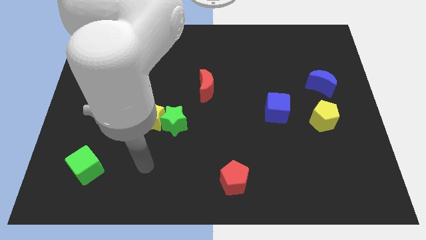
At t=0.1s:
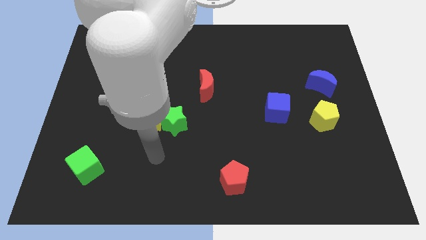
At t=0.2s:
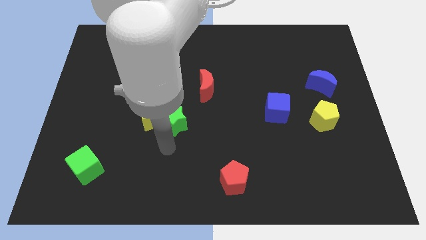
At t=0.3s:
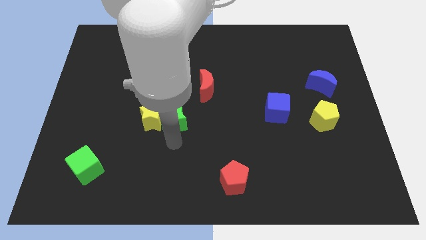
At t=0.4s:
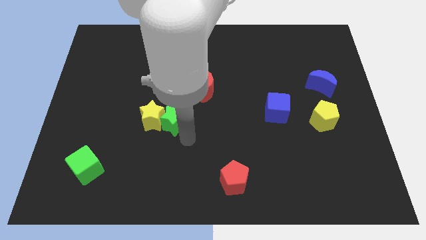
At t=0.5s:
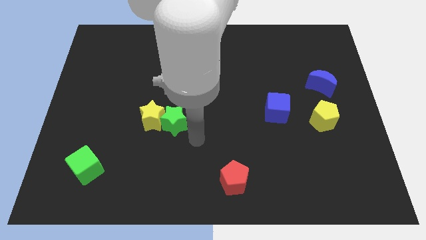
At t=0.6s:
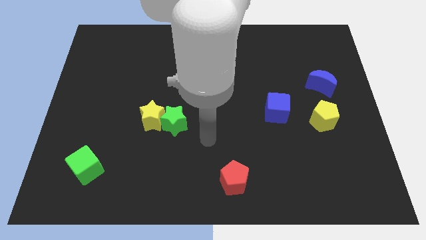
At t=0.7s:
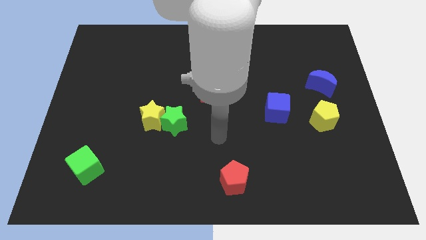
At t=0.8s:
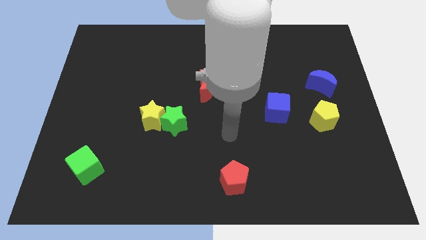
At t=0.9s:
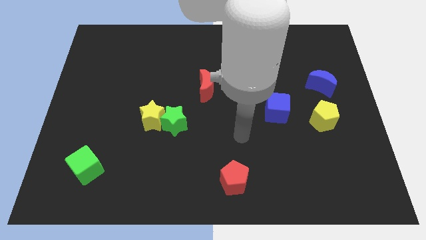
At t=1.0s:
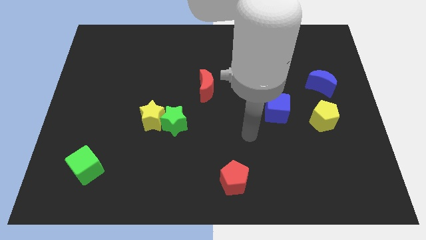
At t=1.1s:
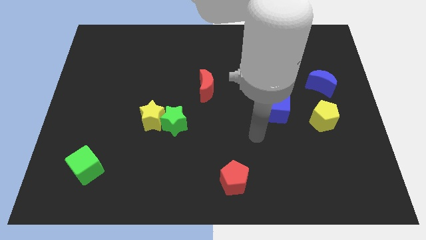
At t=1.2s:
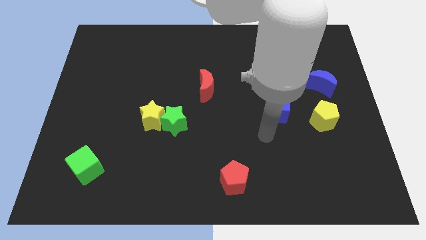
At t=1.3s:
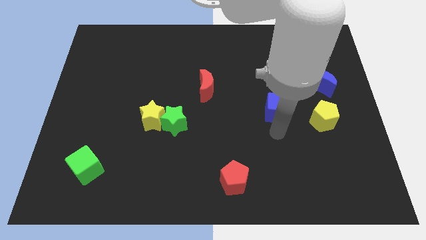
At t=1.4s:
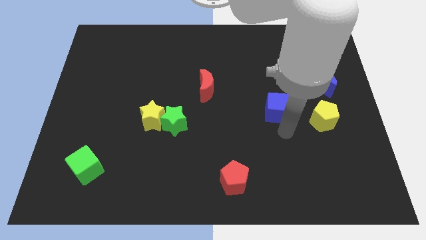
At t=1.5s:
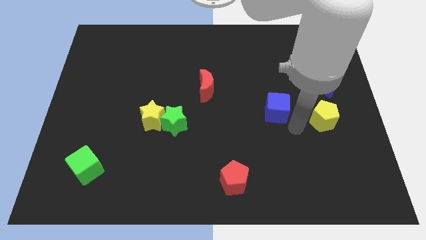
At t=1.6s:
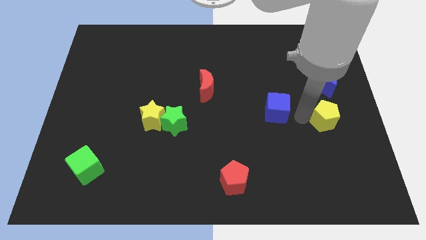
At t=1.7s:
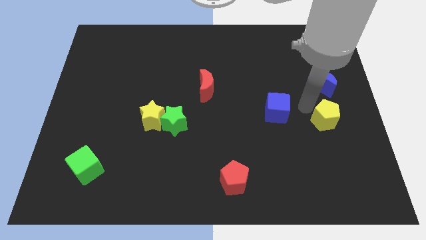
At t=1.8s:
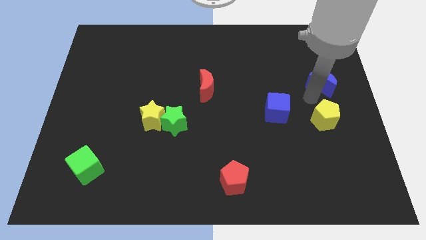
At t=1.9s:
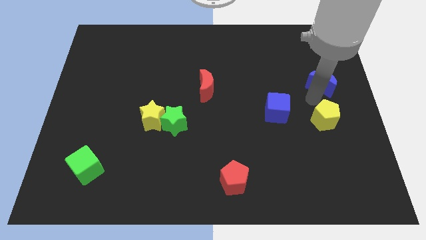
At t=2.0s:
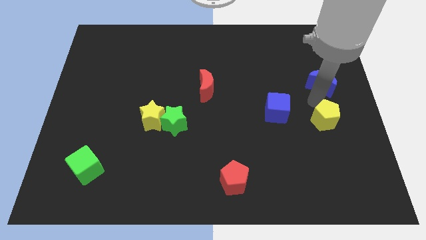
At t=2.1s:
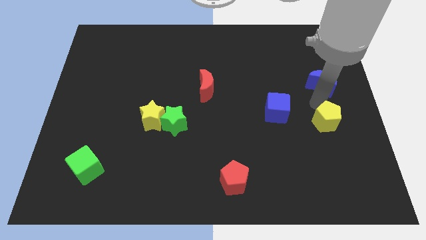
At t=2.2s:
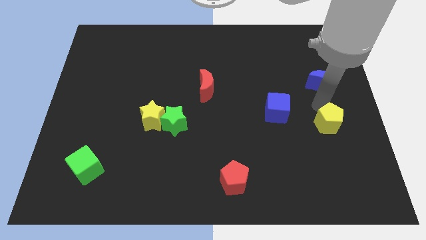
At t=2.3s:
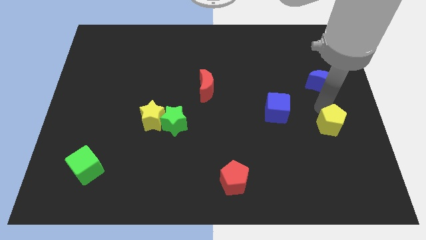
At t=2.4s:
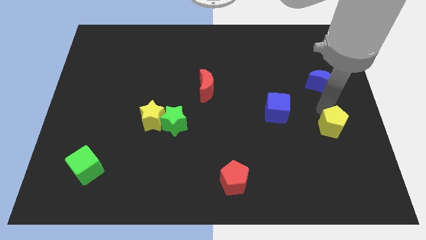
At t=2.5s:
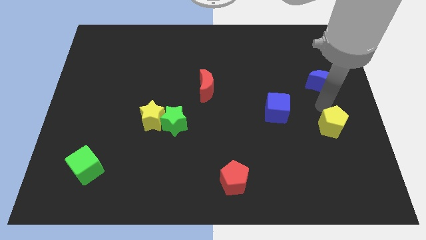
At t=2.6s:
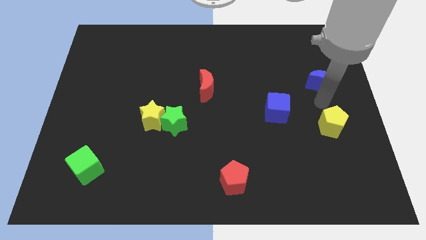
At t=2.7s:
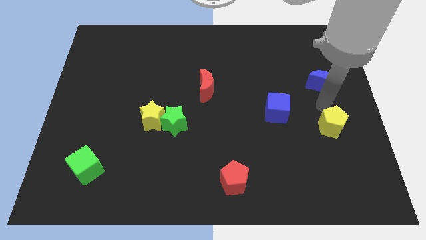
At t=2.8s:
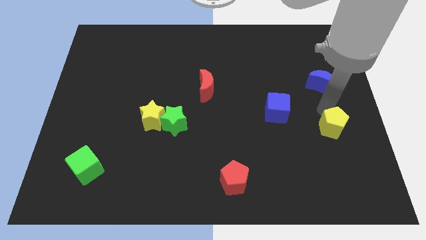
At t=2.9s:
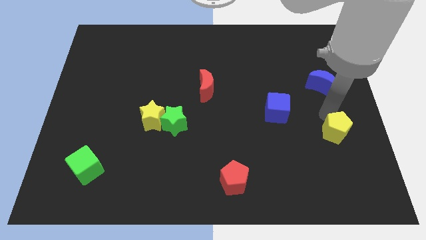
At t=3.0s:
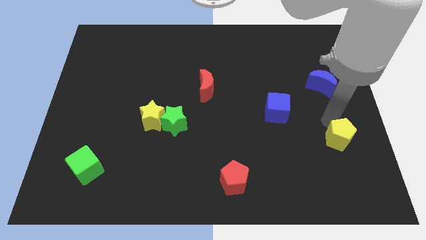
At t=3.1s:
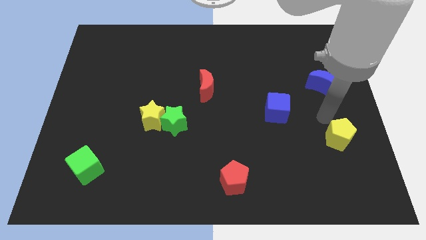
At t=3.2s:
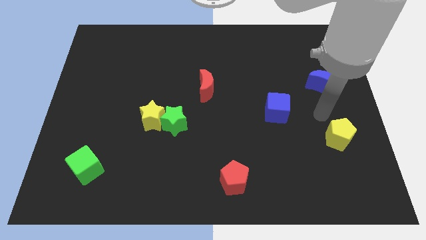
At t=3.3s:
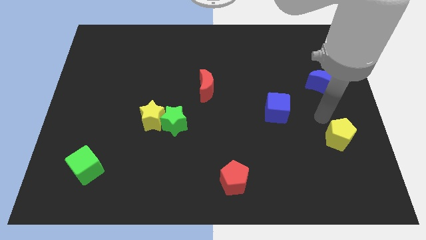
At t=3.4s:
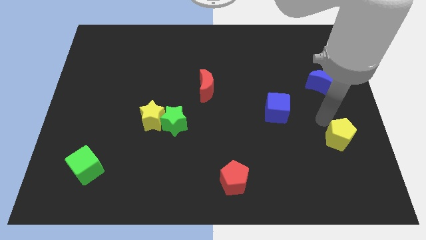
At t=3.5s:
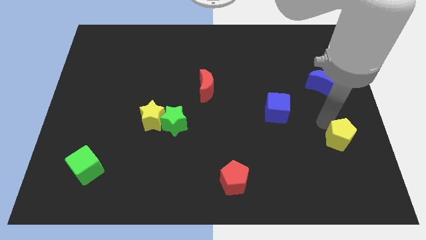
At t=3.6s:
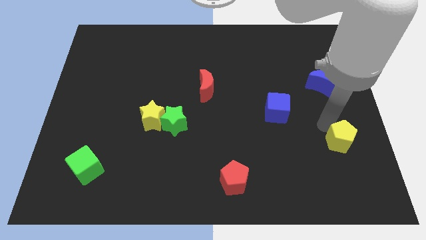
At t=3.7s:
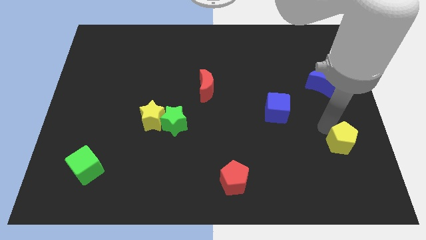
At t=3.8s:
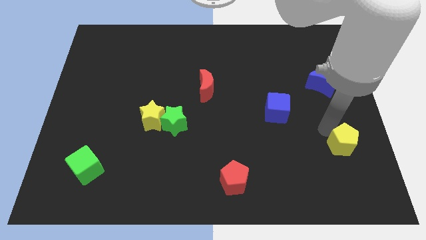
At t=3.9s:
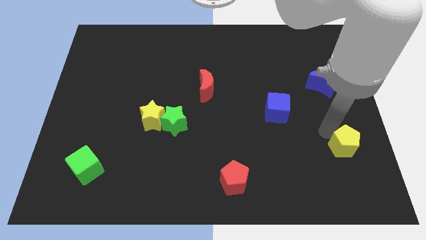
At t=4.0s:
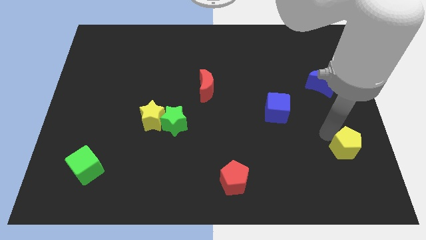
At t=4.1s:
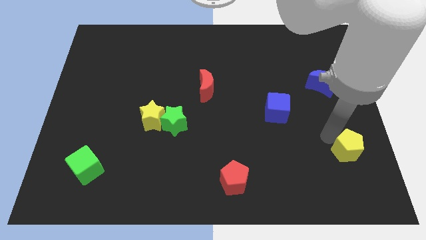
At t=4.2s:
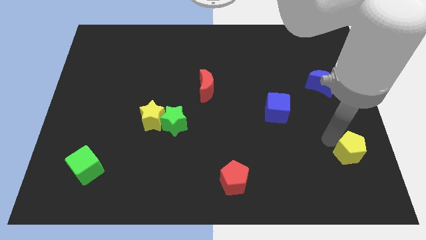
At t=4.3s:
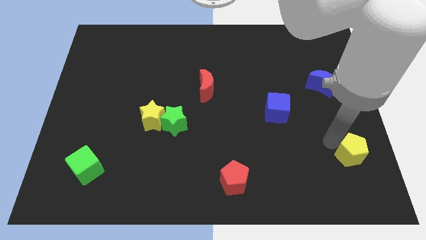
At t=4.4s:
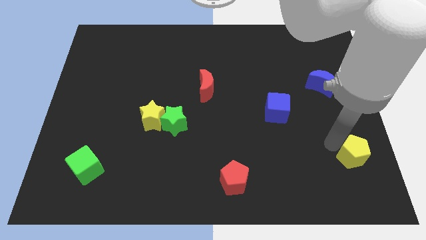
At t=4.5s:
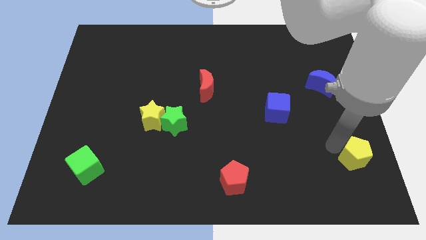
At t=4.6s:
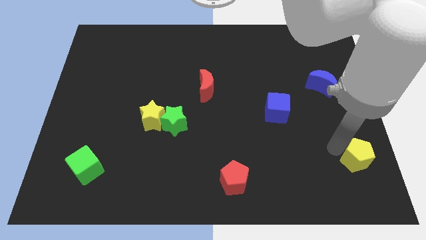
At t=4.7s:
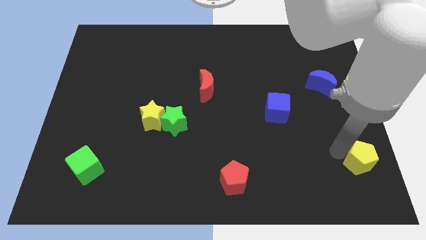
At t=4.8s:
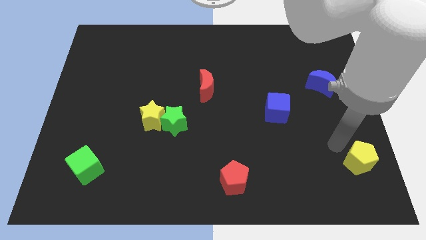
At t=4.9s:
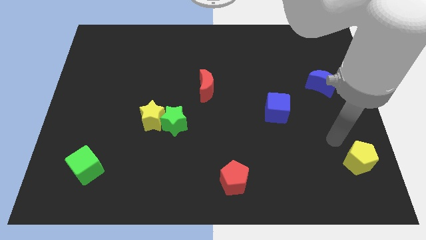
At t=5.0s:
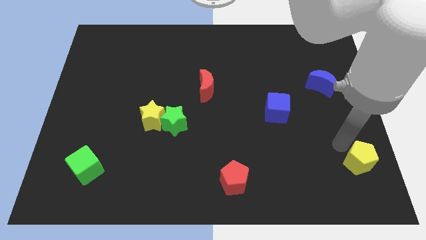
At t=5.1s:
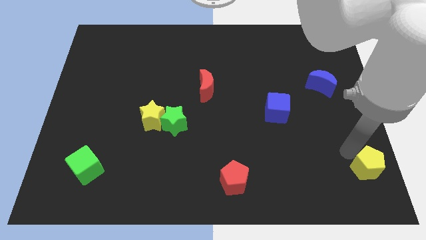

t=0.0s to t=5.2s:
put the yellow pentagon to the lower right corner
